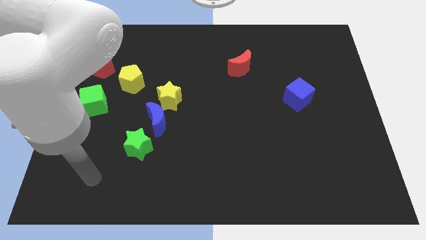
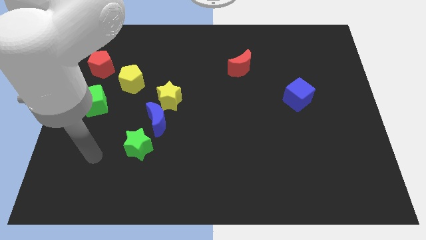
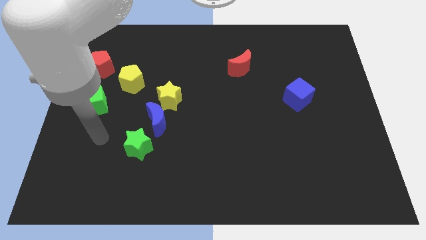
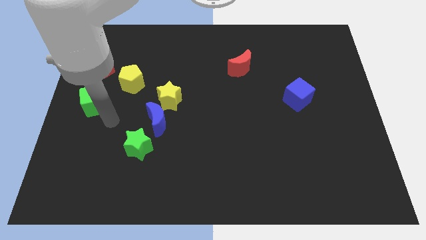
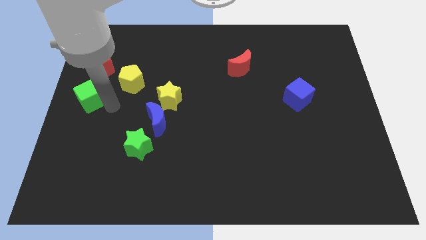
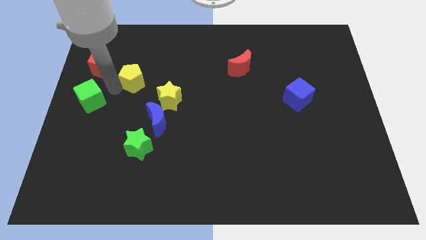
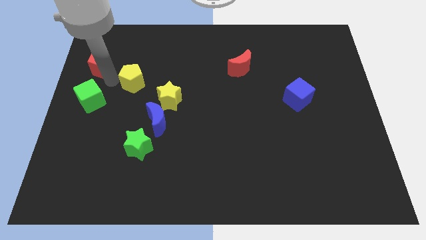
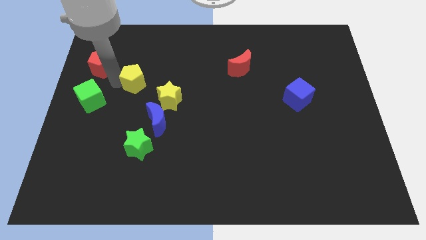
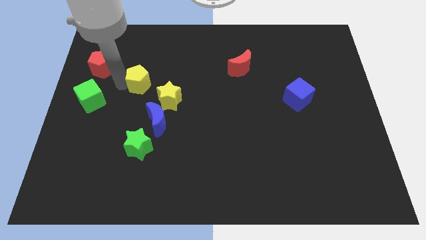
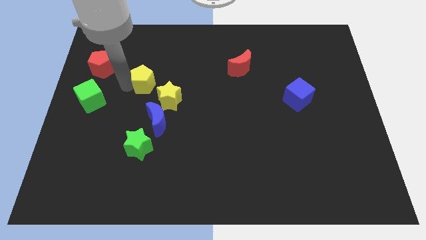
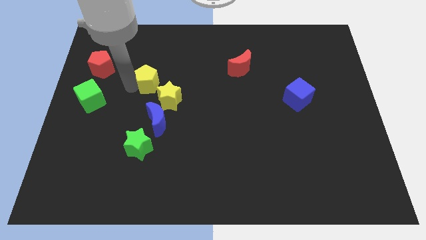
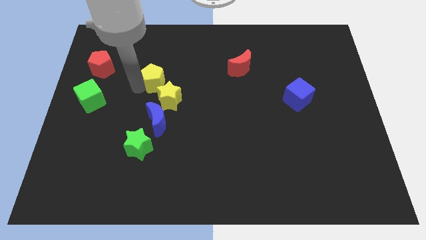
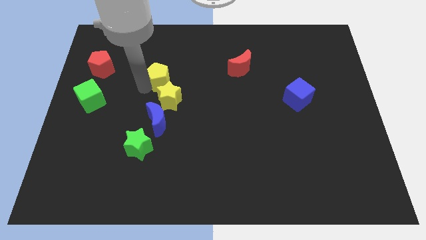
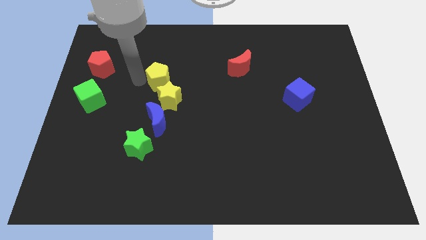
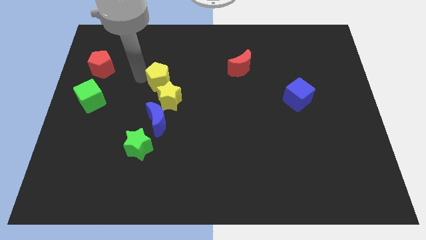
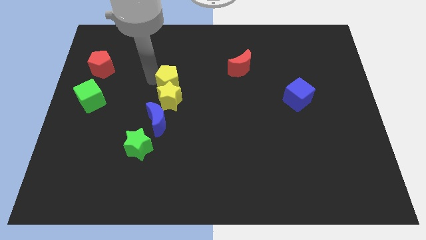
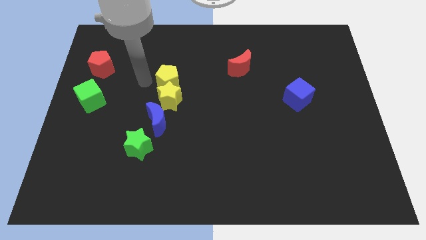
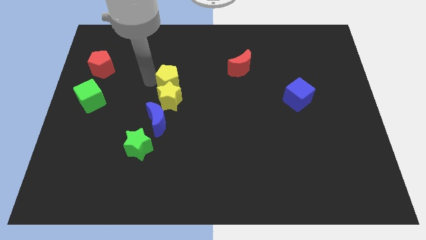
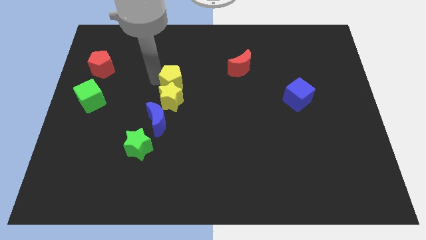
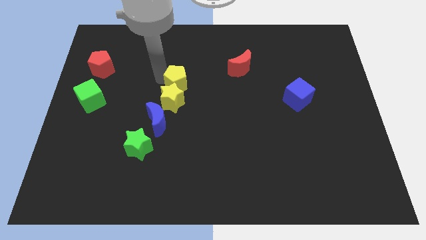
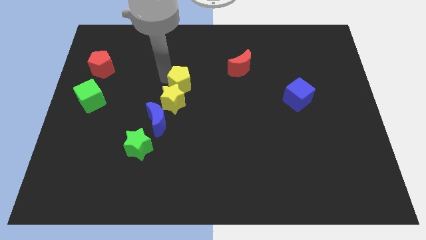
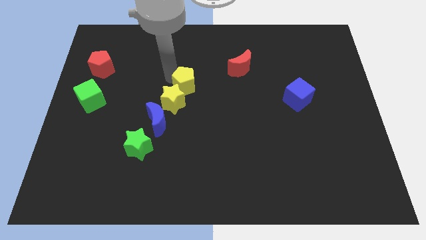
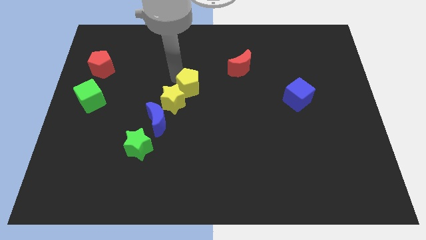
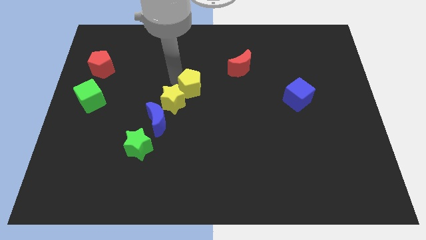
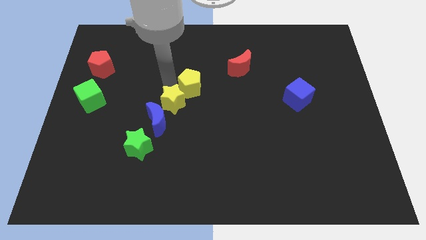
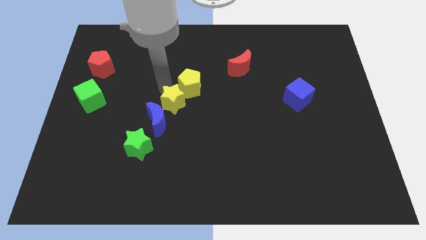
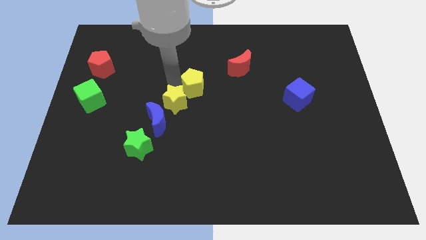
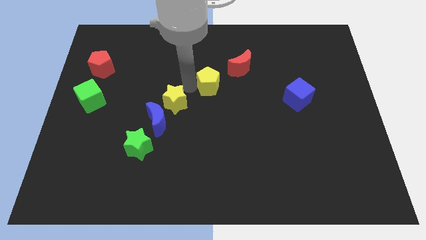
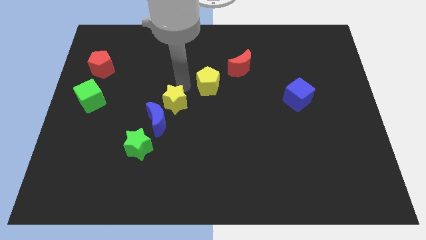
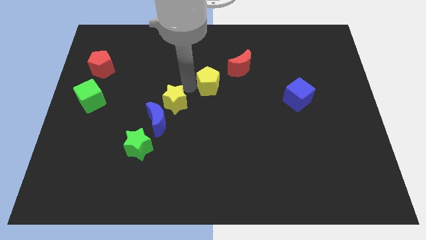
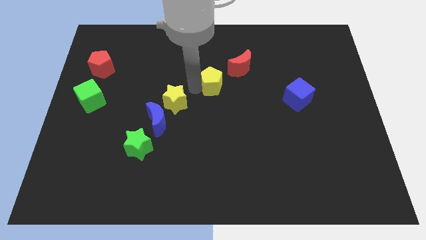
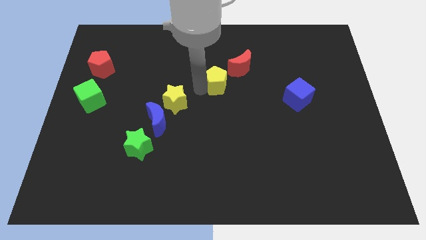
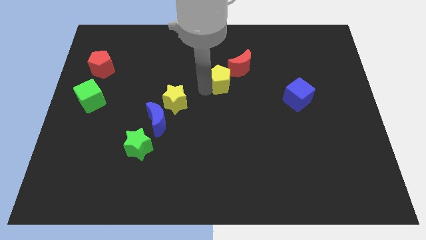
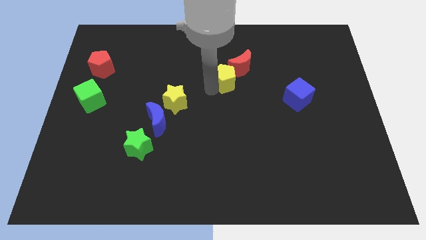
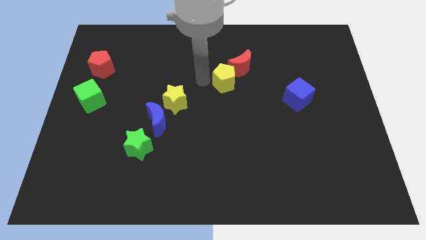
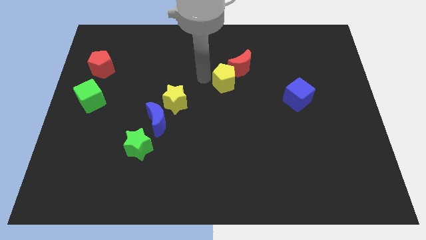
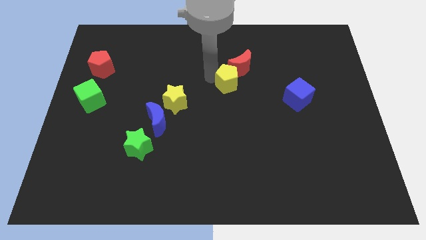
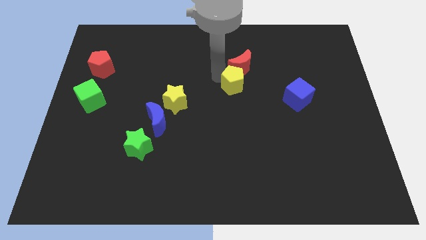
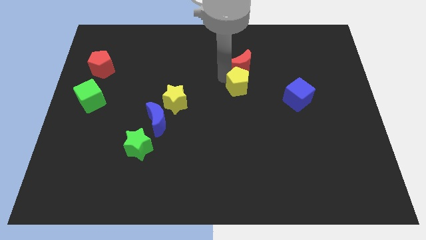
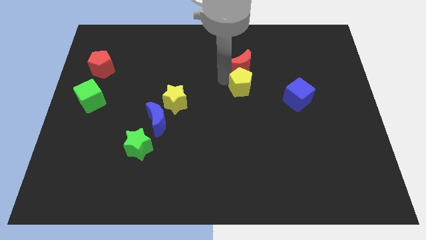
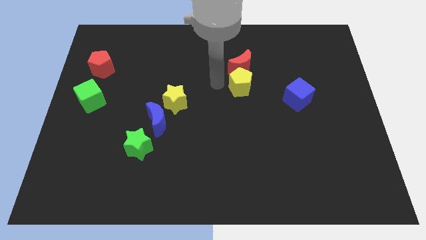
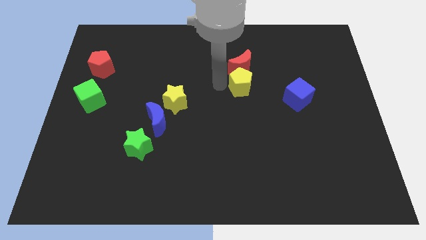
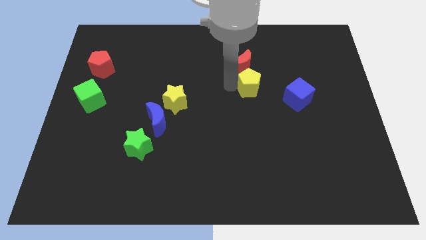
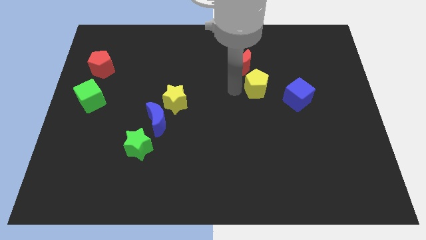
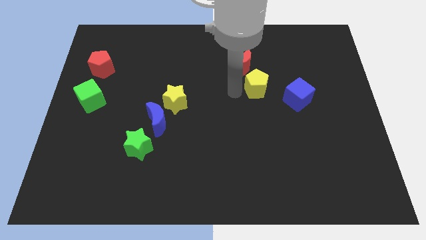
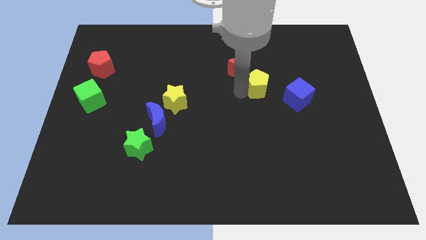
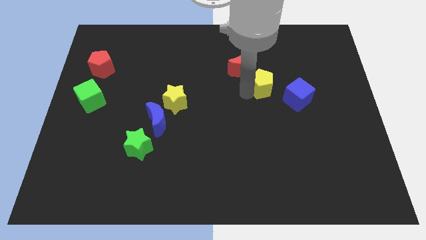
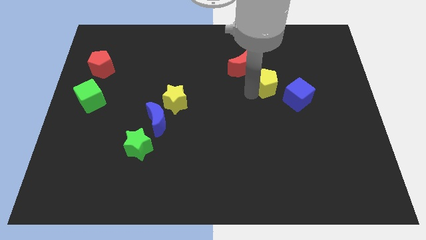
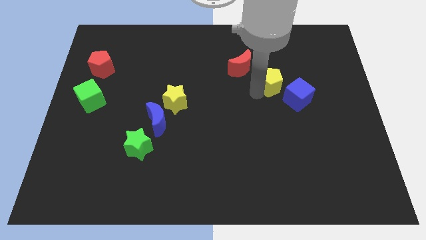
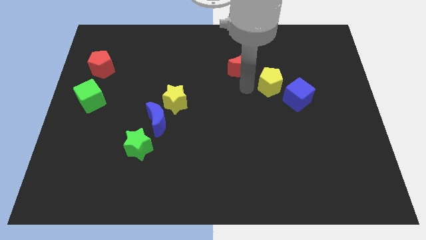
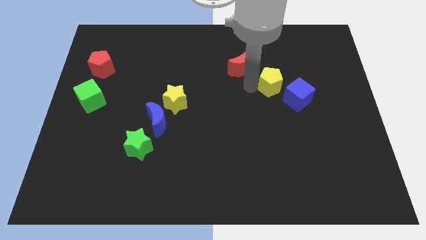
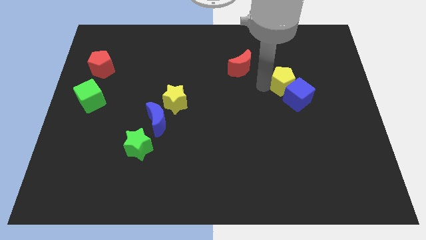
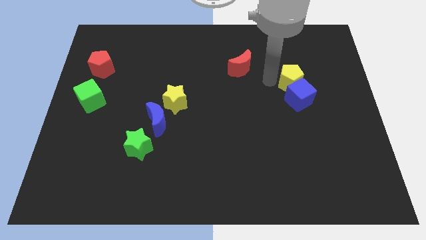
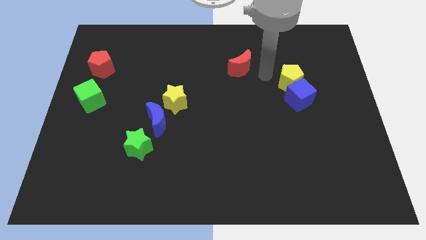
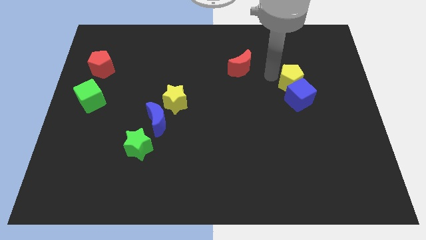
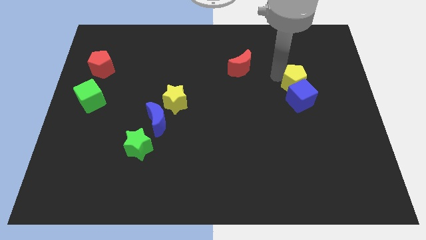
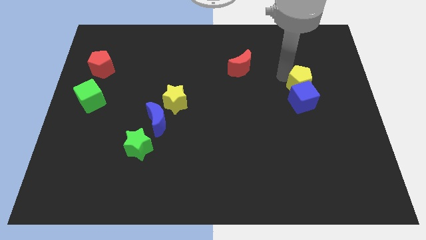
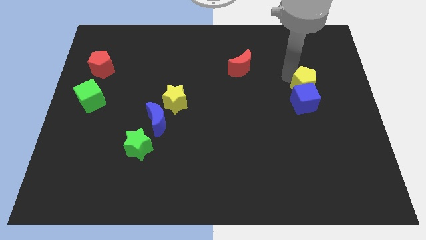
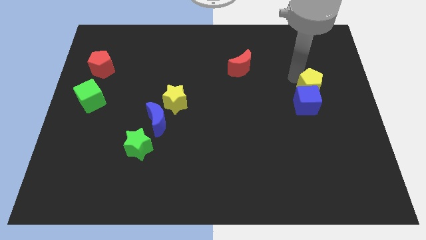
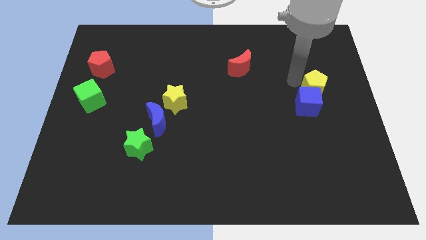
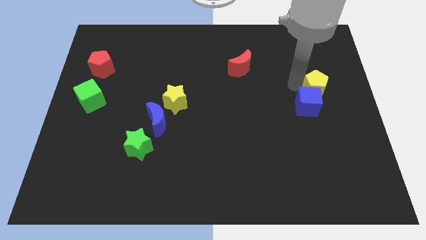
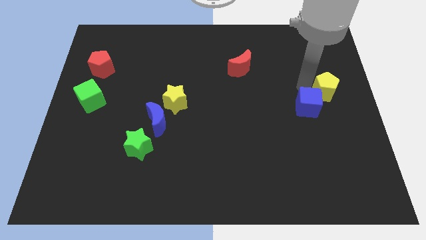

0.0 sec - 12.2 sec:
push the yellow pentagon to the right side of the board
